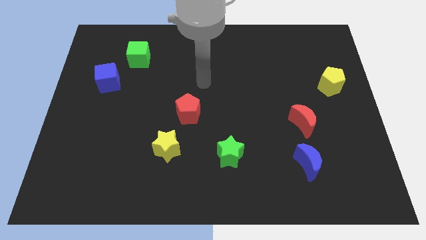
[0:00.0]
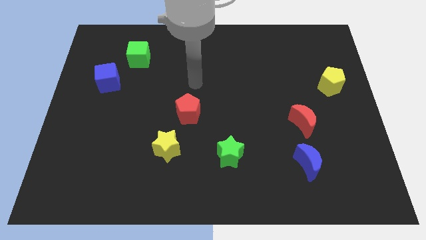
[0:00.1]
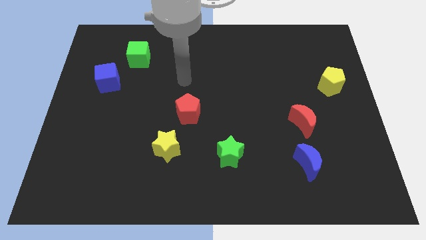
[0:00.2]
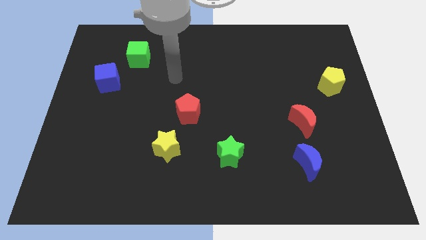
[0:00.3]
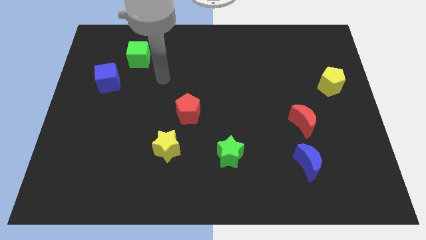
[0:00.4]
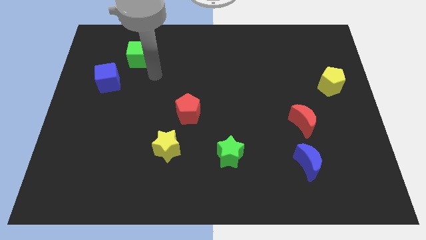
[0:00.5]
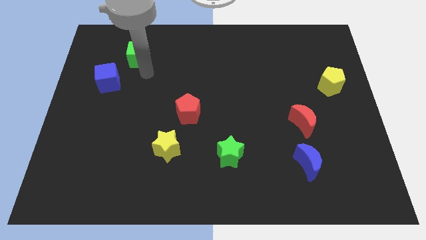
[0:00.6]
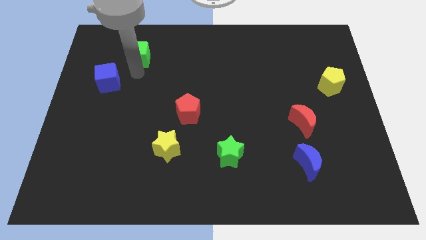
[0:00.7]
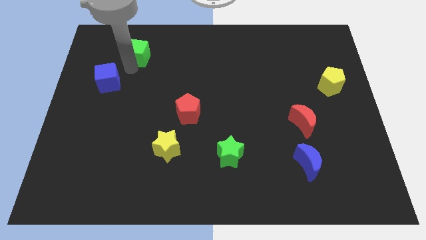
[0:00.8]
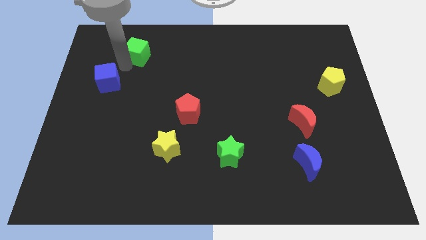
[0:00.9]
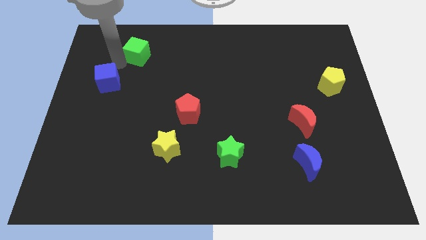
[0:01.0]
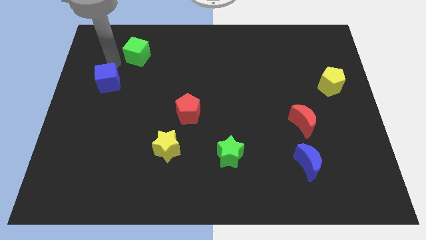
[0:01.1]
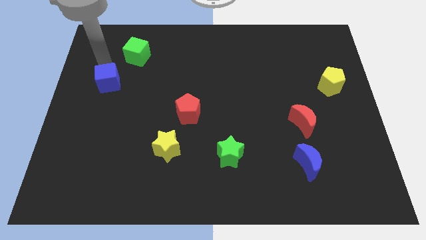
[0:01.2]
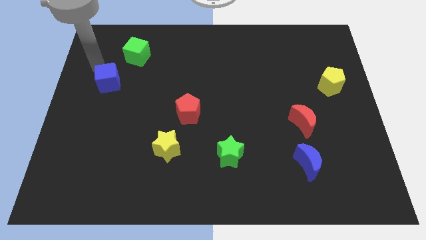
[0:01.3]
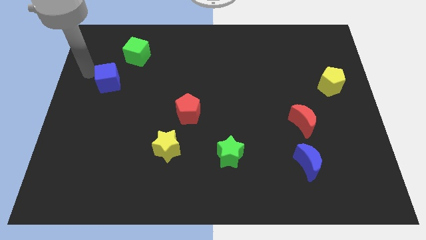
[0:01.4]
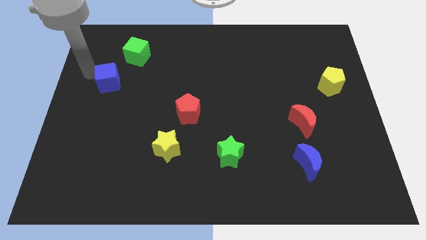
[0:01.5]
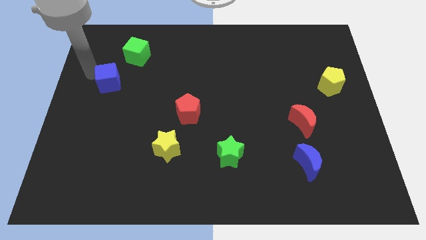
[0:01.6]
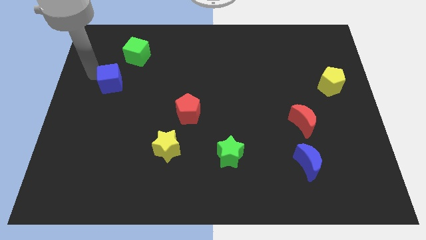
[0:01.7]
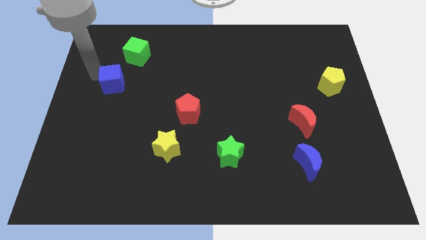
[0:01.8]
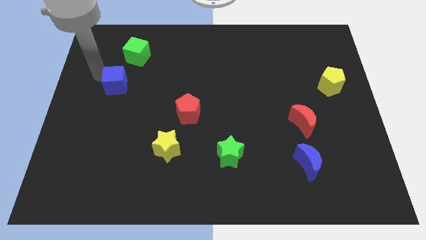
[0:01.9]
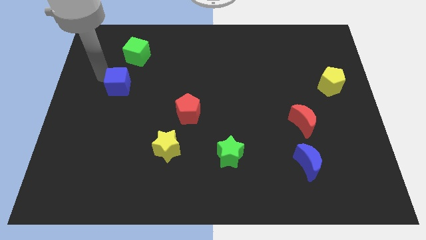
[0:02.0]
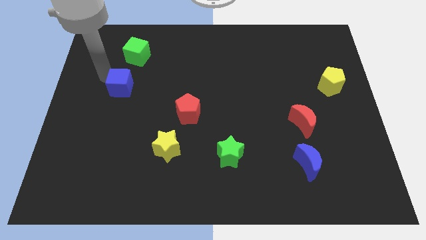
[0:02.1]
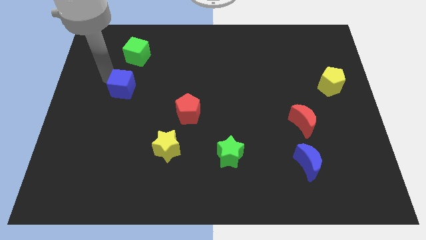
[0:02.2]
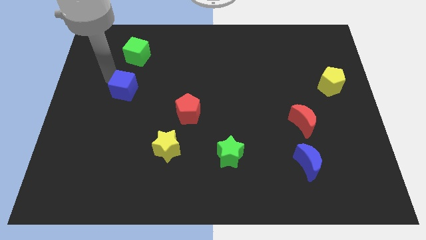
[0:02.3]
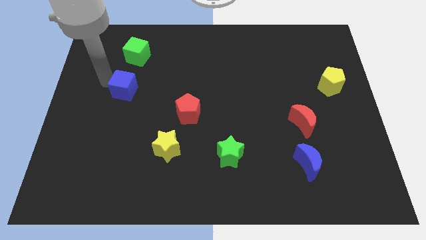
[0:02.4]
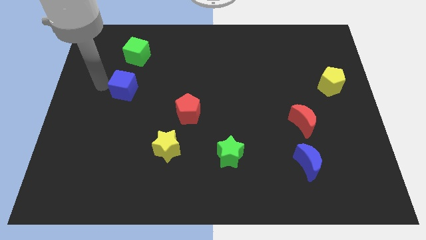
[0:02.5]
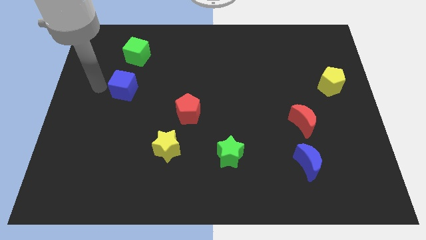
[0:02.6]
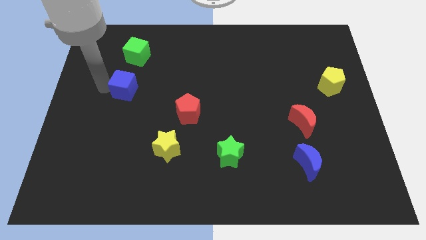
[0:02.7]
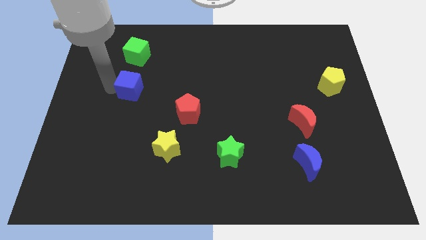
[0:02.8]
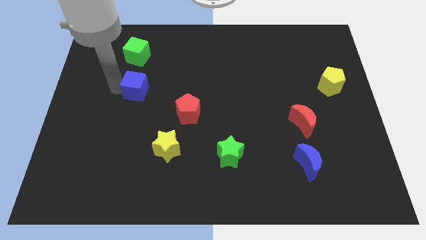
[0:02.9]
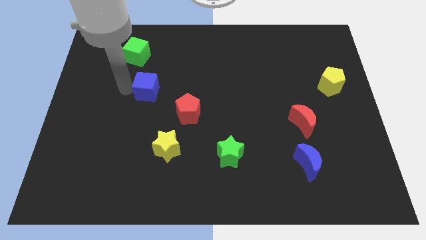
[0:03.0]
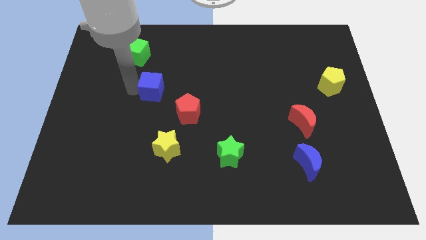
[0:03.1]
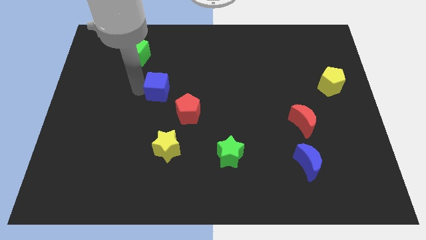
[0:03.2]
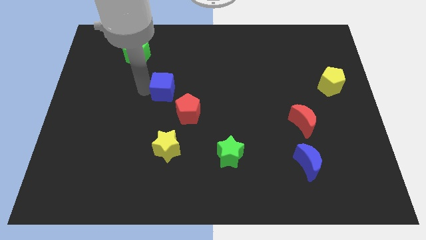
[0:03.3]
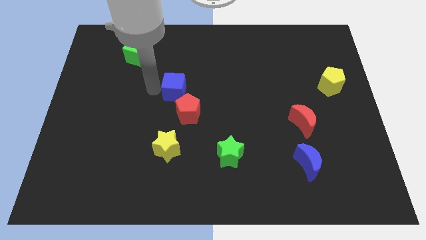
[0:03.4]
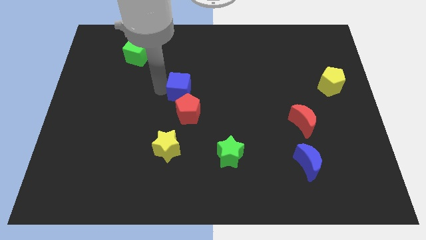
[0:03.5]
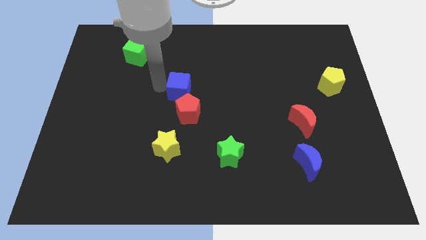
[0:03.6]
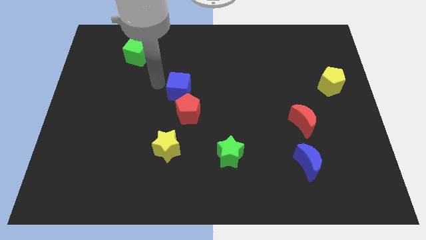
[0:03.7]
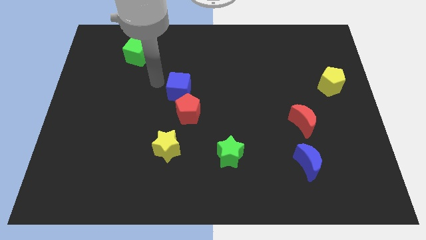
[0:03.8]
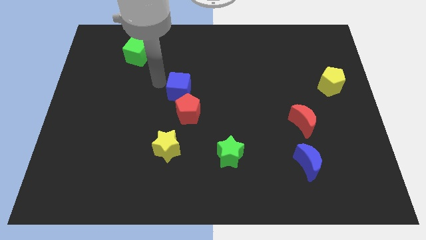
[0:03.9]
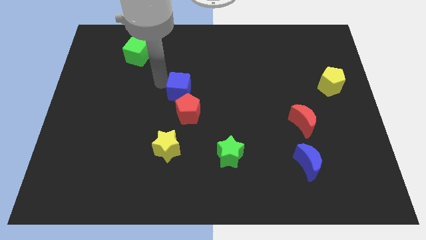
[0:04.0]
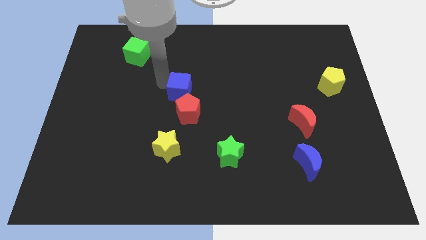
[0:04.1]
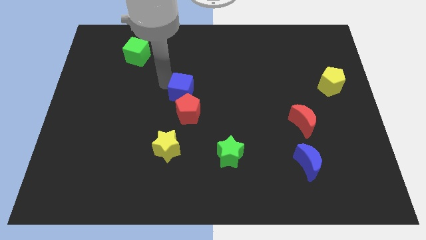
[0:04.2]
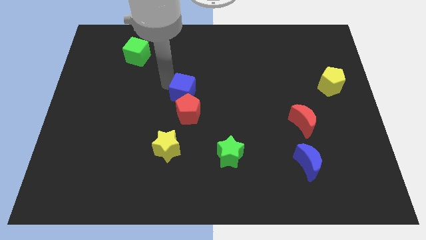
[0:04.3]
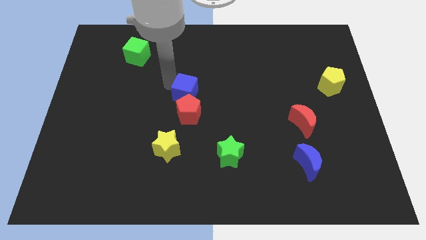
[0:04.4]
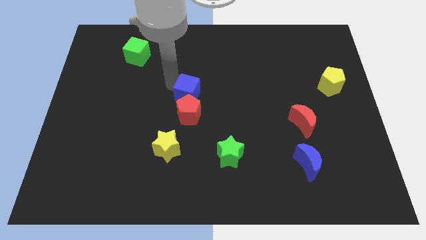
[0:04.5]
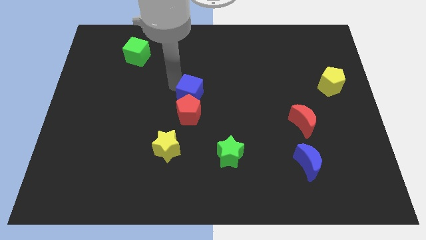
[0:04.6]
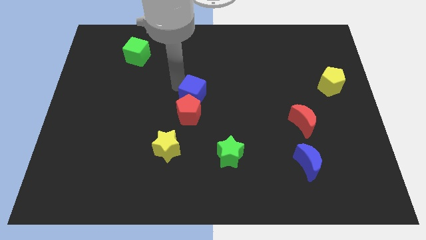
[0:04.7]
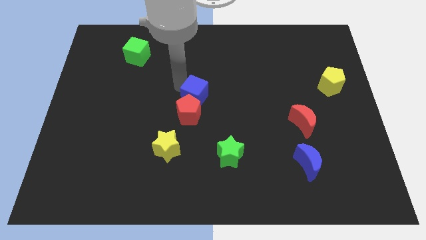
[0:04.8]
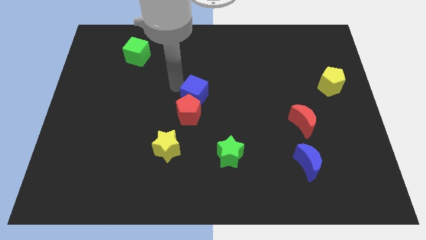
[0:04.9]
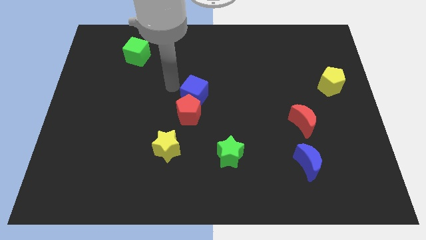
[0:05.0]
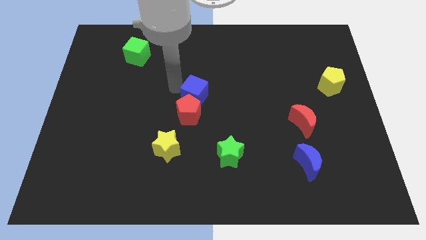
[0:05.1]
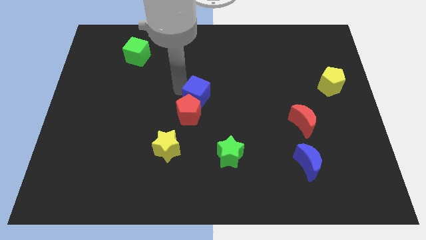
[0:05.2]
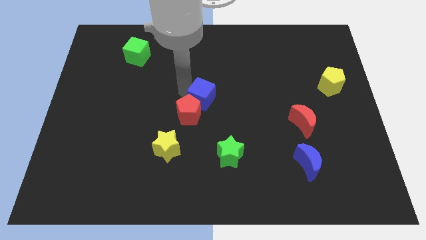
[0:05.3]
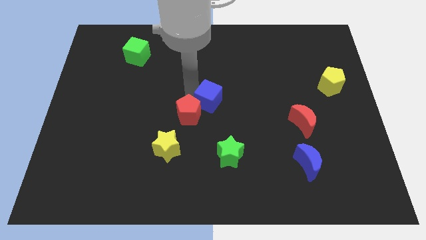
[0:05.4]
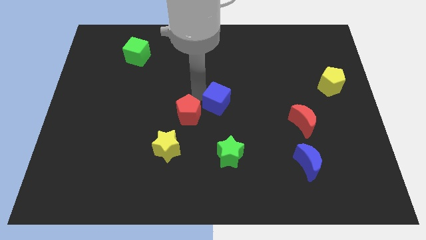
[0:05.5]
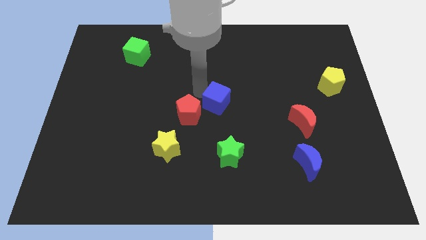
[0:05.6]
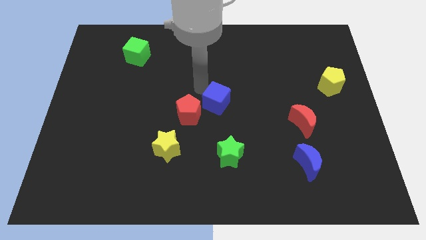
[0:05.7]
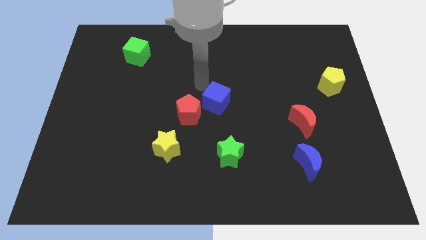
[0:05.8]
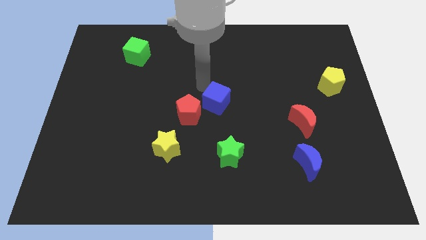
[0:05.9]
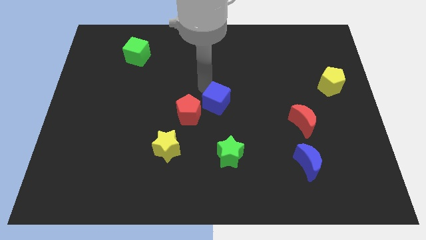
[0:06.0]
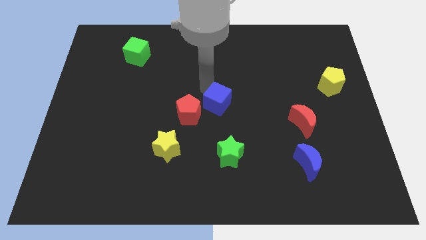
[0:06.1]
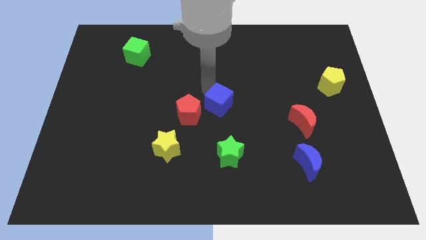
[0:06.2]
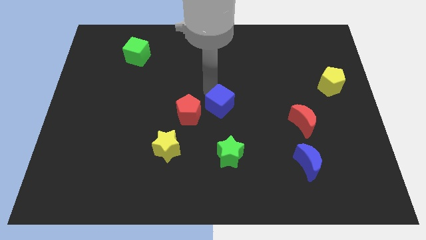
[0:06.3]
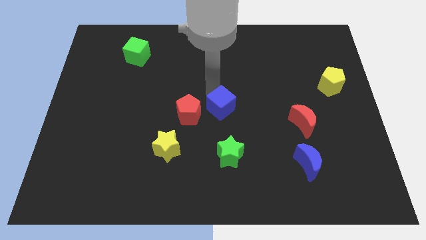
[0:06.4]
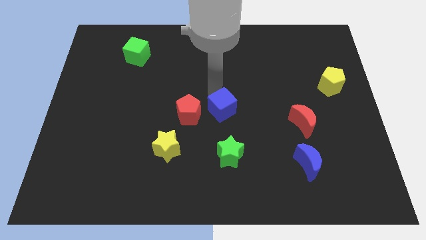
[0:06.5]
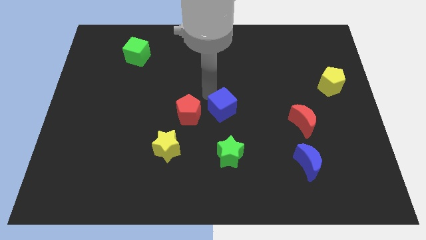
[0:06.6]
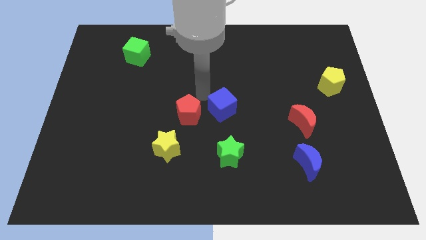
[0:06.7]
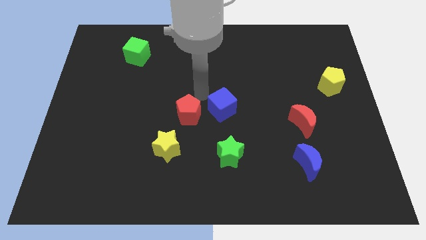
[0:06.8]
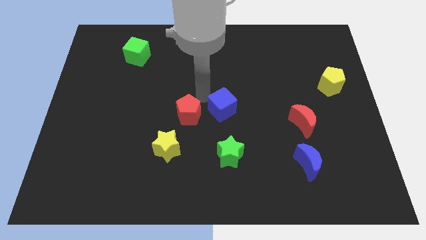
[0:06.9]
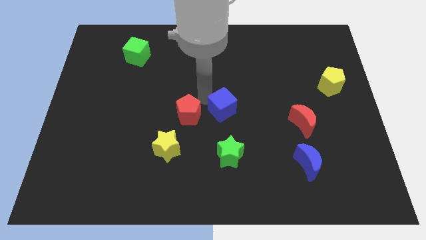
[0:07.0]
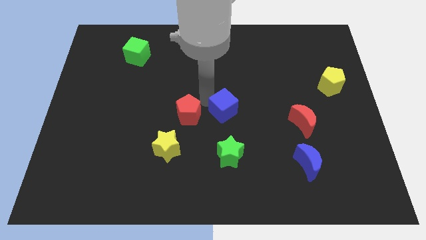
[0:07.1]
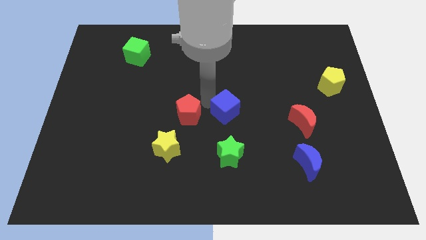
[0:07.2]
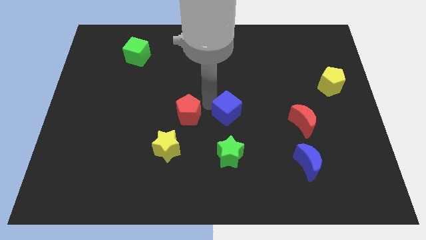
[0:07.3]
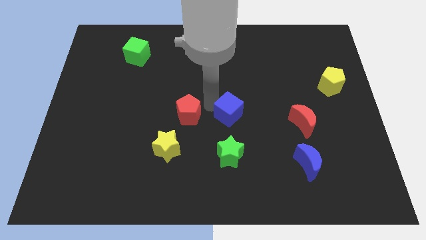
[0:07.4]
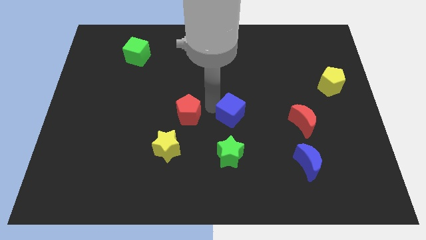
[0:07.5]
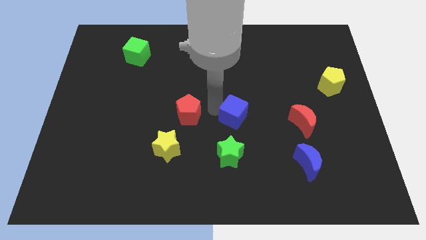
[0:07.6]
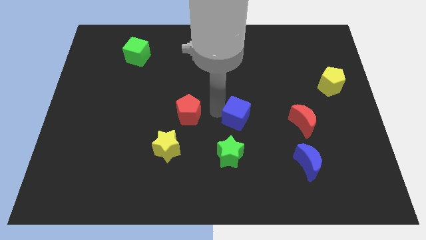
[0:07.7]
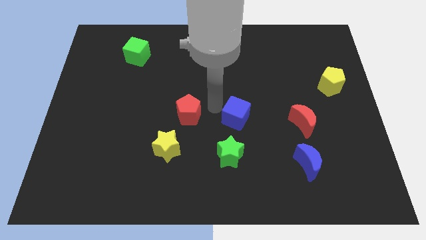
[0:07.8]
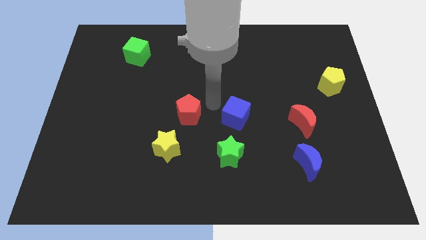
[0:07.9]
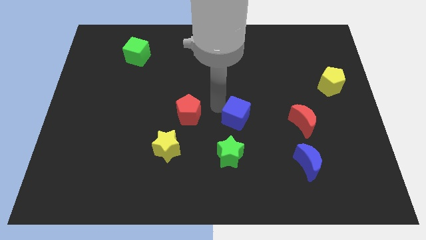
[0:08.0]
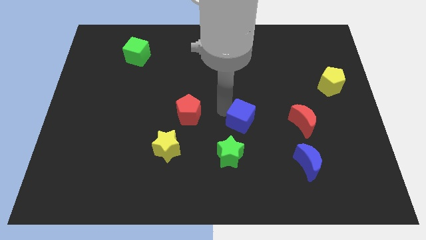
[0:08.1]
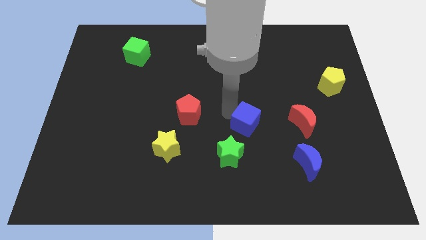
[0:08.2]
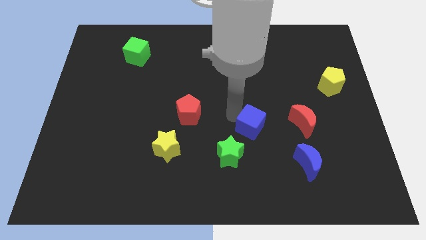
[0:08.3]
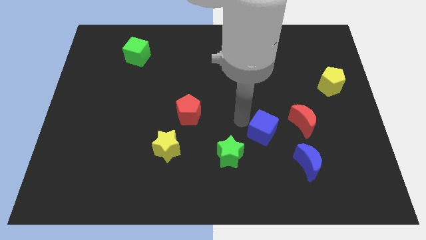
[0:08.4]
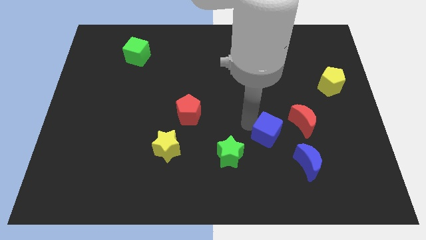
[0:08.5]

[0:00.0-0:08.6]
slide the blue cube to the bottom left side of the red moon
